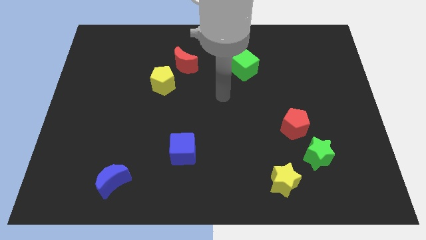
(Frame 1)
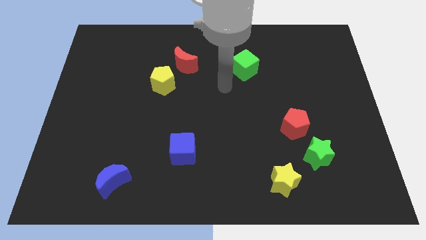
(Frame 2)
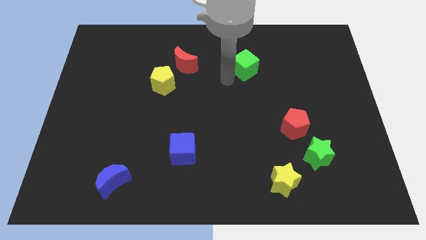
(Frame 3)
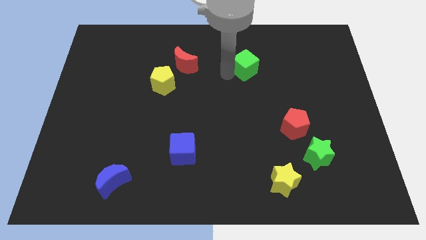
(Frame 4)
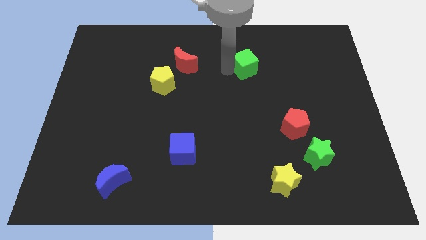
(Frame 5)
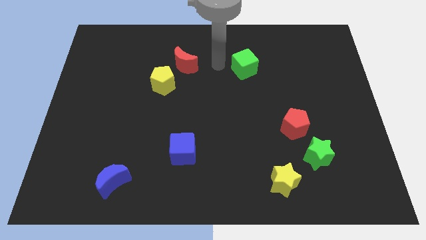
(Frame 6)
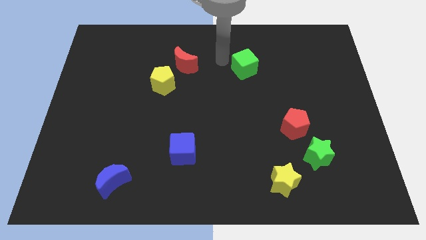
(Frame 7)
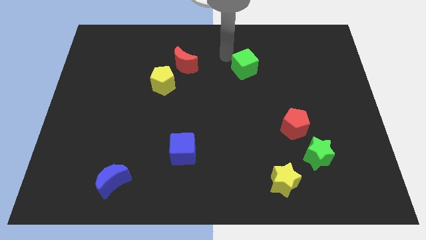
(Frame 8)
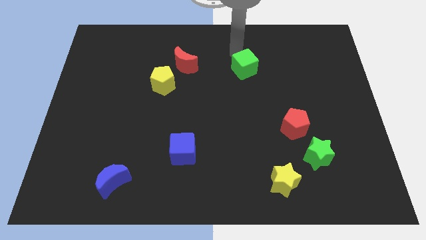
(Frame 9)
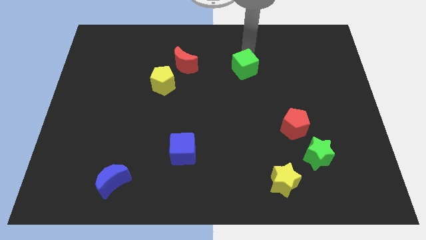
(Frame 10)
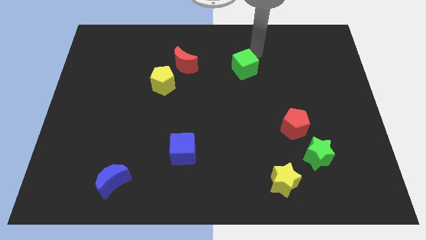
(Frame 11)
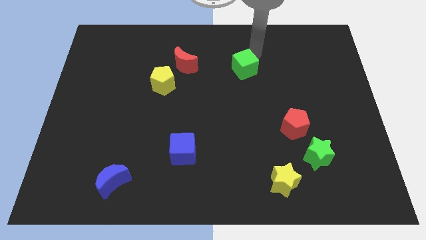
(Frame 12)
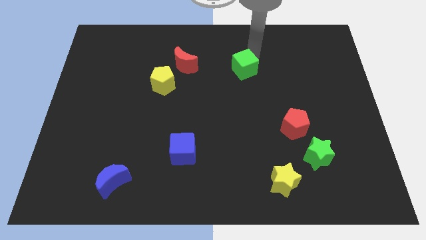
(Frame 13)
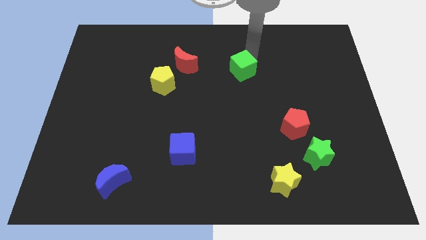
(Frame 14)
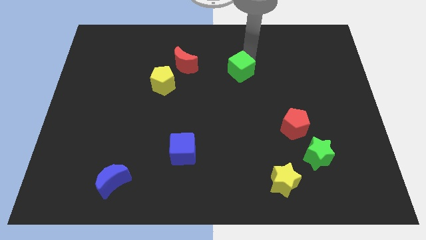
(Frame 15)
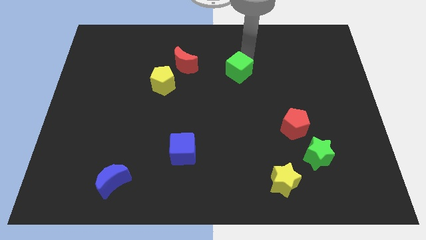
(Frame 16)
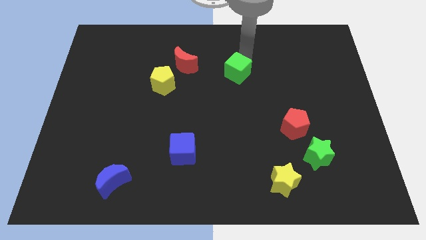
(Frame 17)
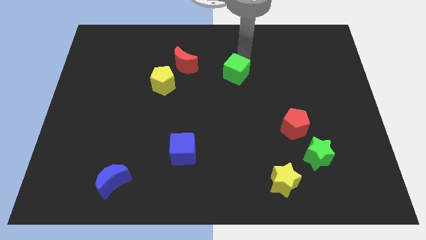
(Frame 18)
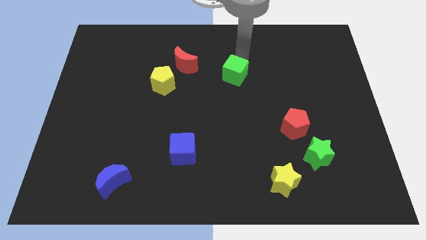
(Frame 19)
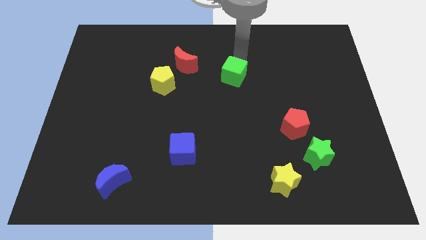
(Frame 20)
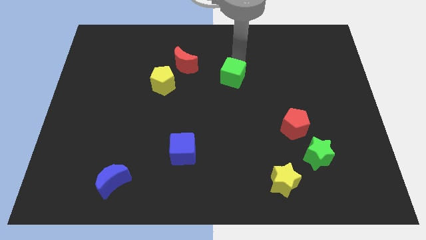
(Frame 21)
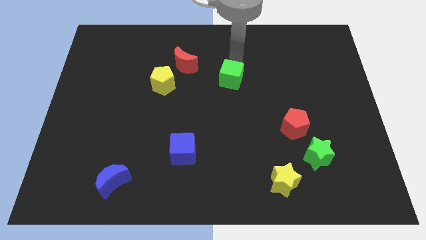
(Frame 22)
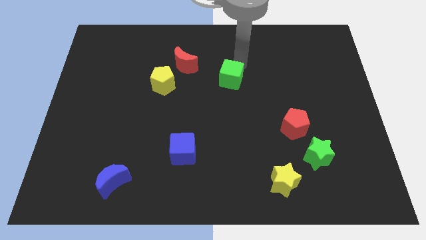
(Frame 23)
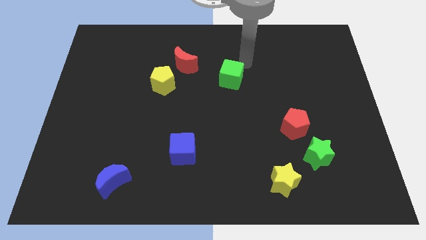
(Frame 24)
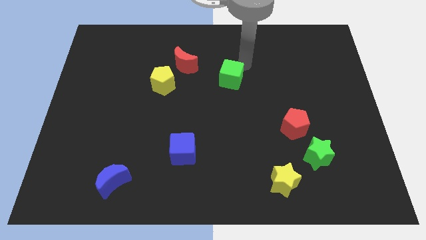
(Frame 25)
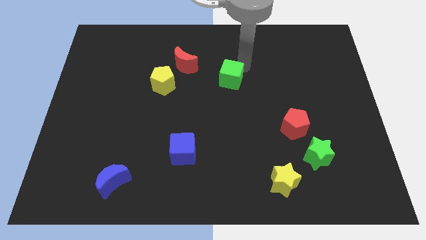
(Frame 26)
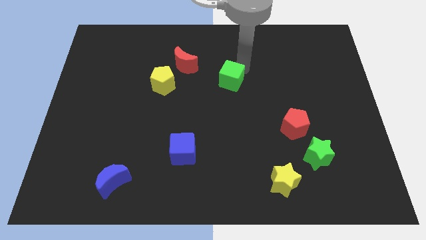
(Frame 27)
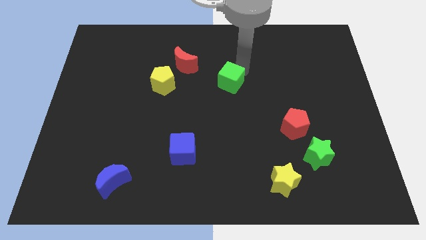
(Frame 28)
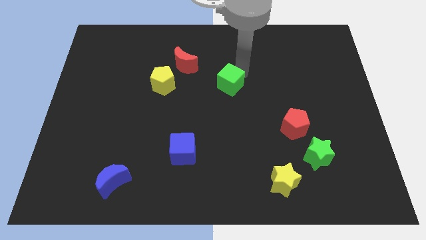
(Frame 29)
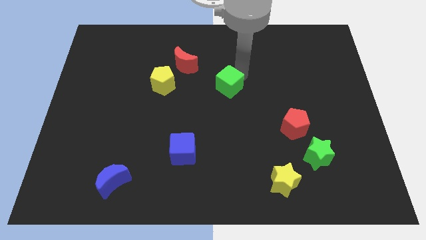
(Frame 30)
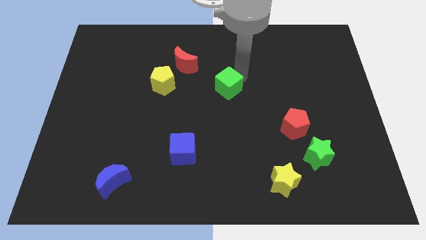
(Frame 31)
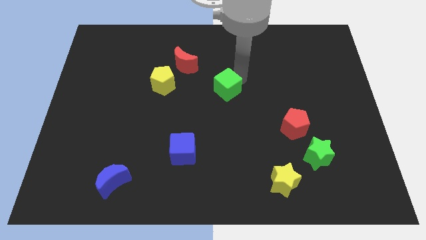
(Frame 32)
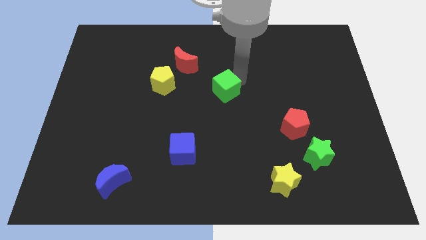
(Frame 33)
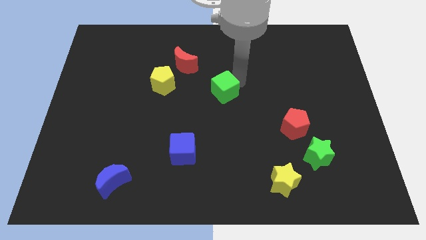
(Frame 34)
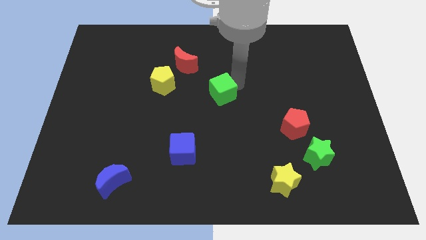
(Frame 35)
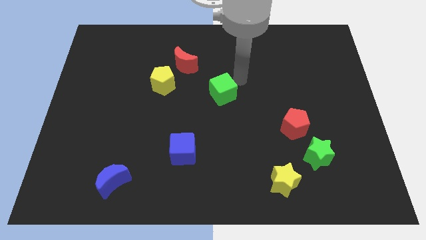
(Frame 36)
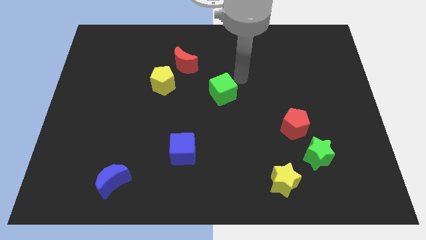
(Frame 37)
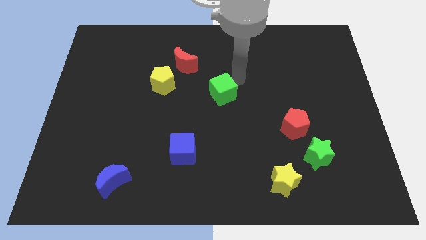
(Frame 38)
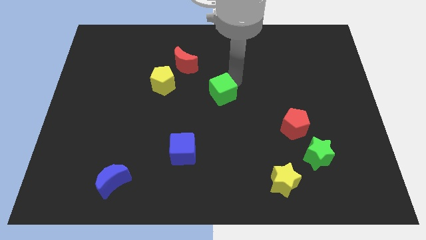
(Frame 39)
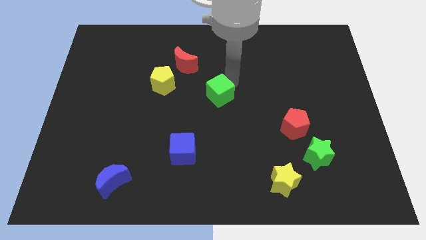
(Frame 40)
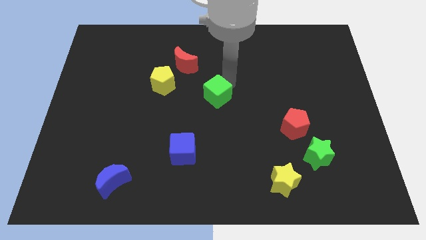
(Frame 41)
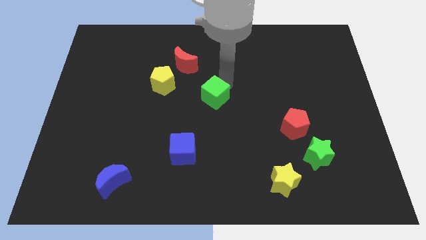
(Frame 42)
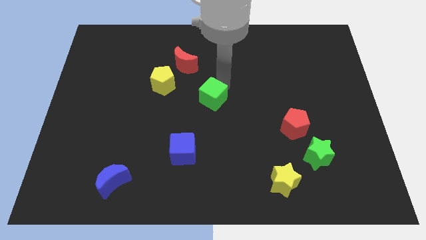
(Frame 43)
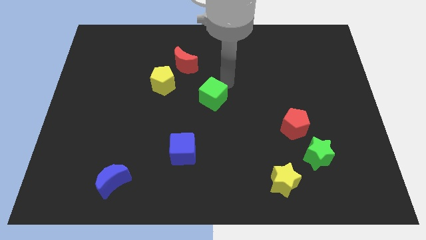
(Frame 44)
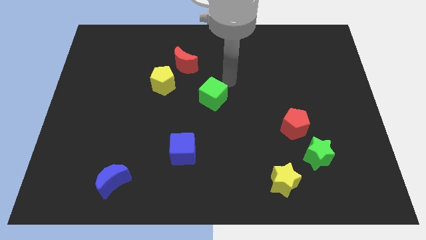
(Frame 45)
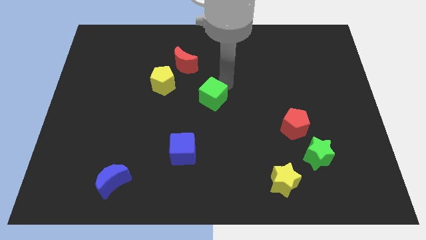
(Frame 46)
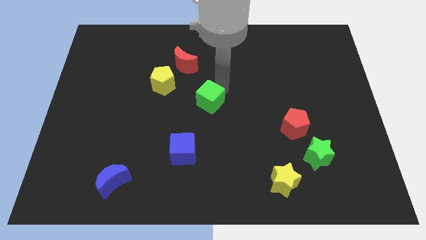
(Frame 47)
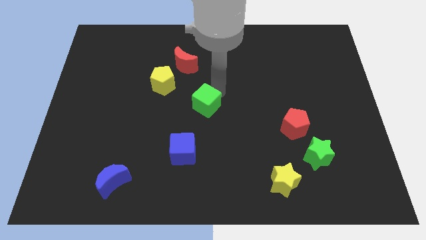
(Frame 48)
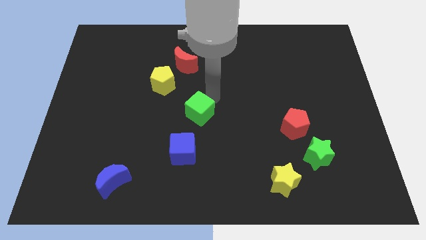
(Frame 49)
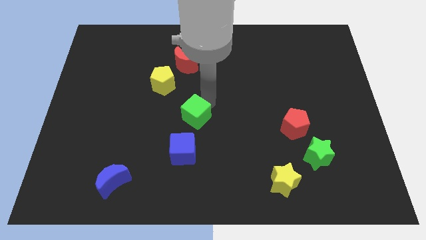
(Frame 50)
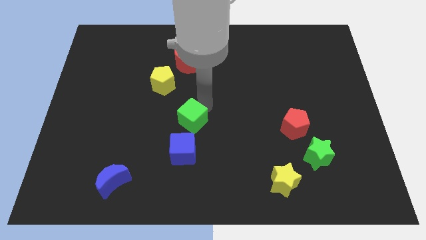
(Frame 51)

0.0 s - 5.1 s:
push the green cube down and then to the left

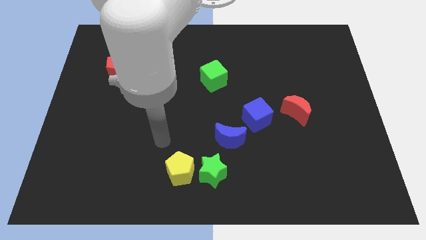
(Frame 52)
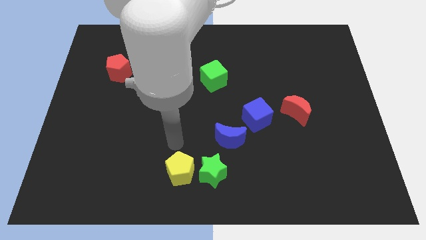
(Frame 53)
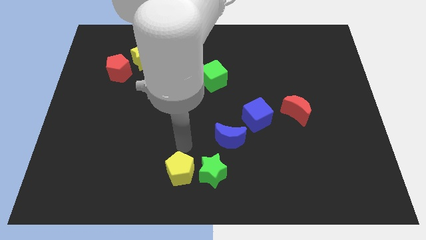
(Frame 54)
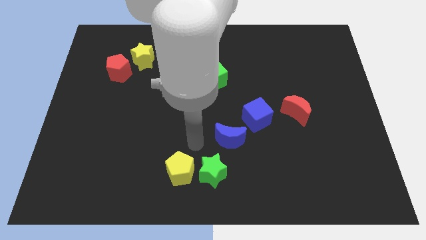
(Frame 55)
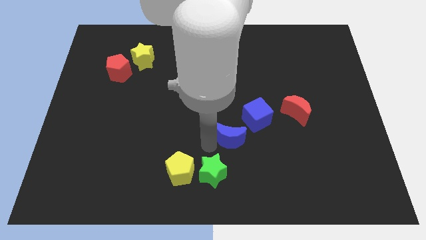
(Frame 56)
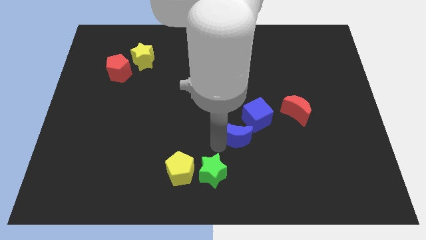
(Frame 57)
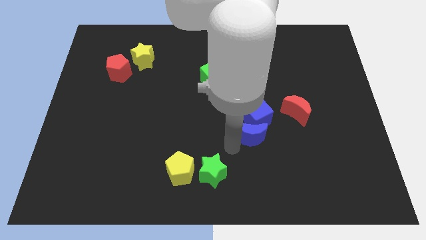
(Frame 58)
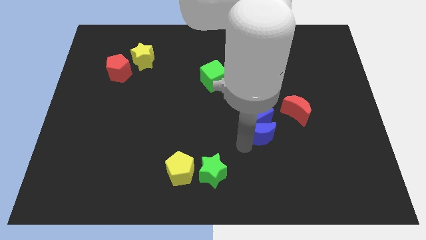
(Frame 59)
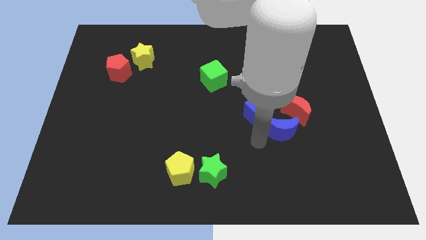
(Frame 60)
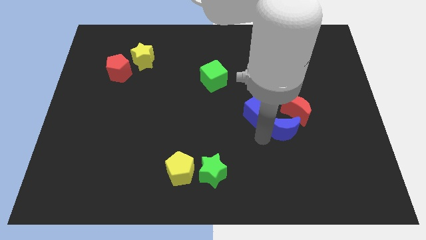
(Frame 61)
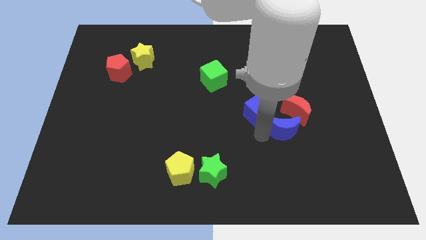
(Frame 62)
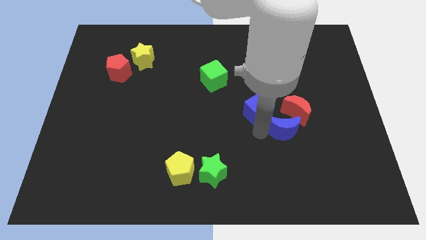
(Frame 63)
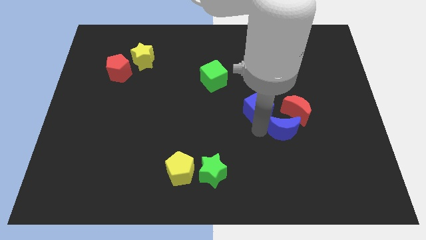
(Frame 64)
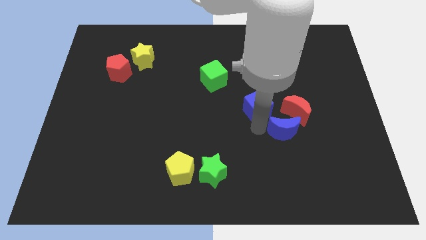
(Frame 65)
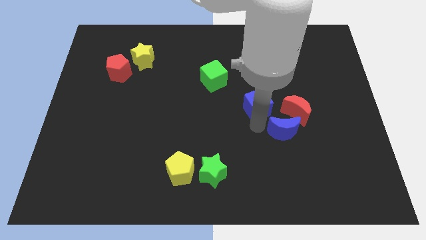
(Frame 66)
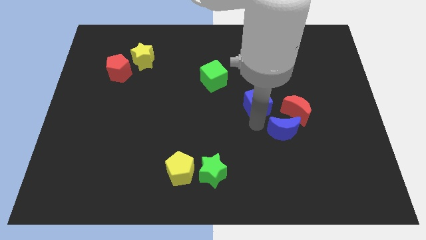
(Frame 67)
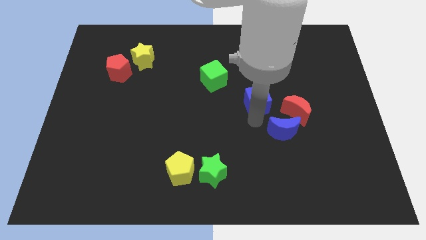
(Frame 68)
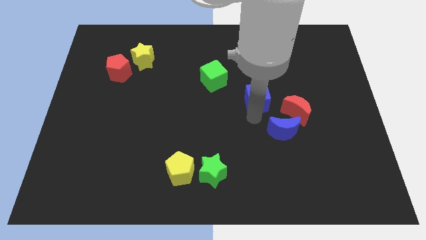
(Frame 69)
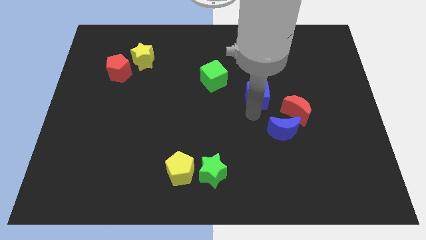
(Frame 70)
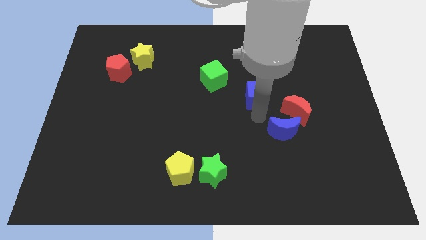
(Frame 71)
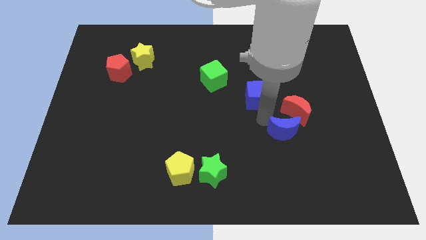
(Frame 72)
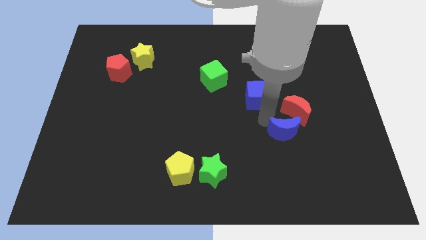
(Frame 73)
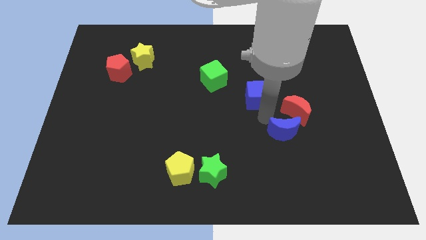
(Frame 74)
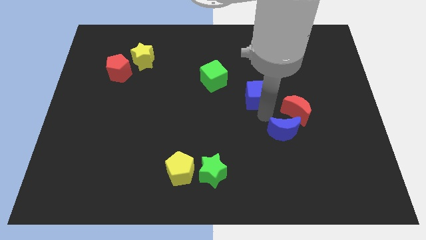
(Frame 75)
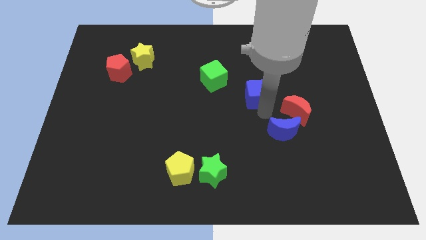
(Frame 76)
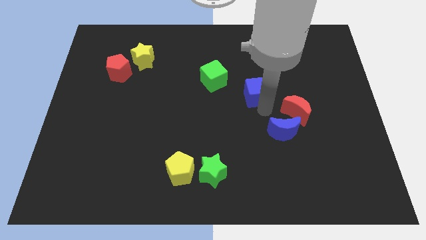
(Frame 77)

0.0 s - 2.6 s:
move the blue cube up somewhat

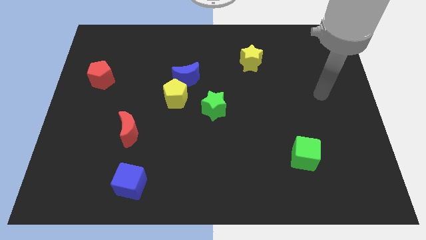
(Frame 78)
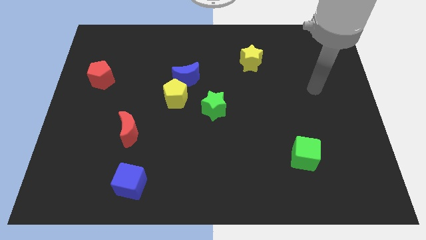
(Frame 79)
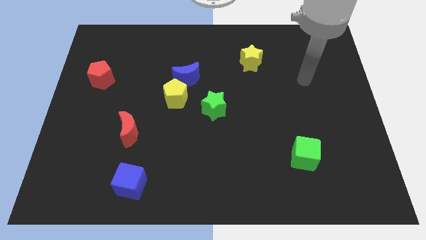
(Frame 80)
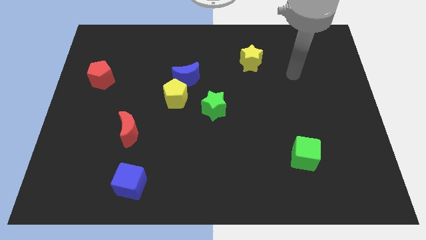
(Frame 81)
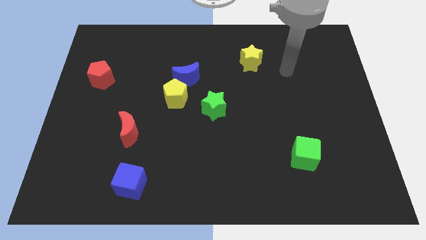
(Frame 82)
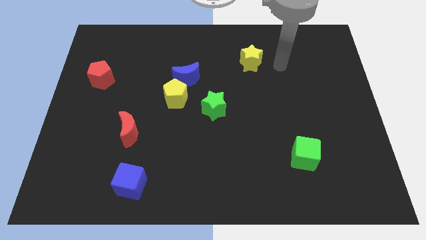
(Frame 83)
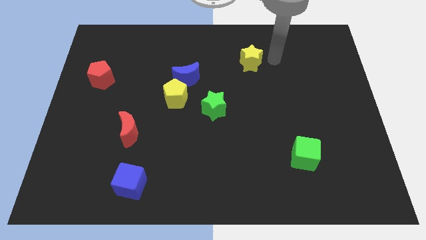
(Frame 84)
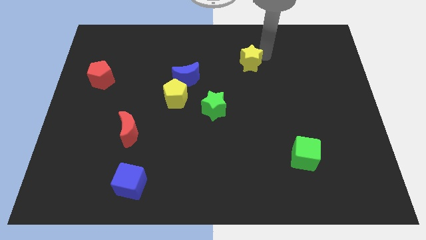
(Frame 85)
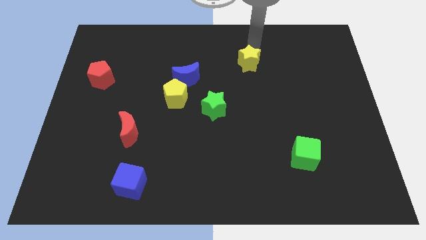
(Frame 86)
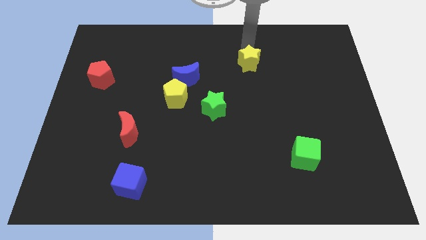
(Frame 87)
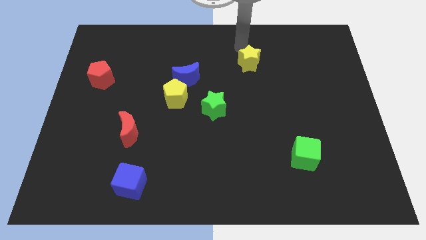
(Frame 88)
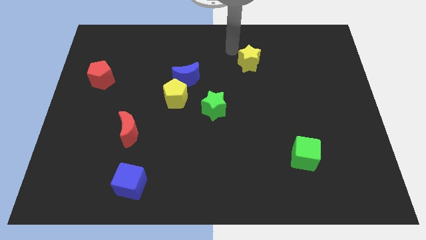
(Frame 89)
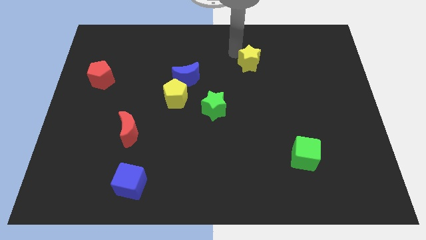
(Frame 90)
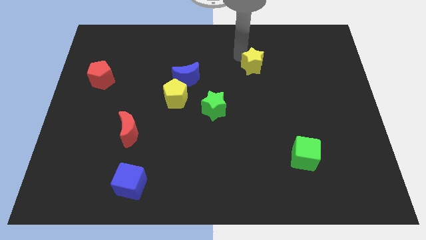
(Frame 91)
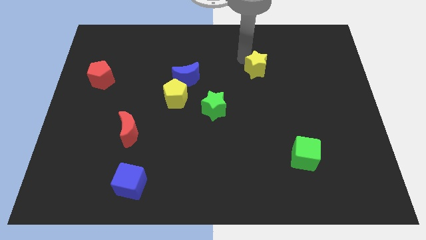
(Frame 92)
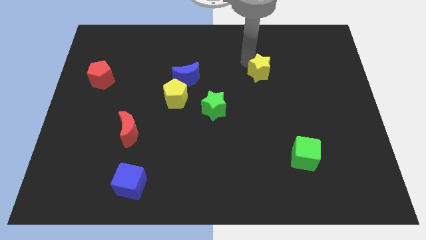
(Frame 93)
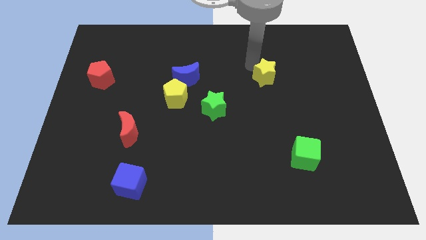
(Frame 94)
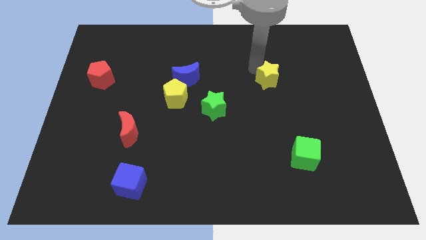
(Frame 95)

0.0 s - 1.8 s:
slightly move the yellow star diagonally downwards and to the right
